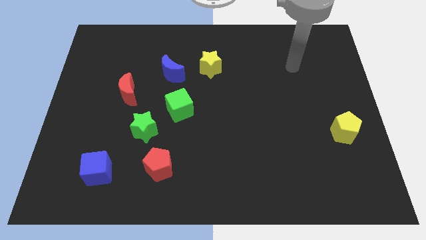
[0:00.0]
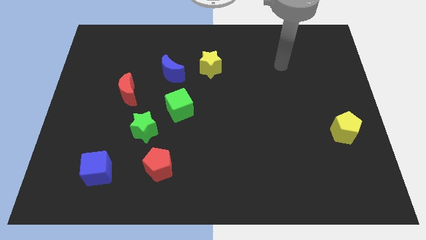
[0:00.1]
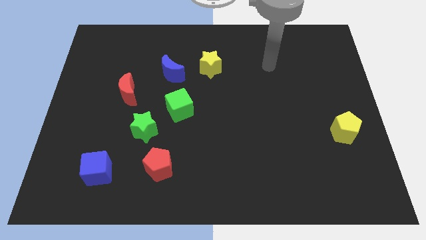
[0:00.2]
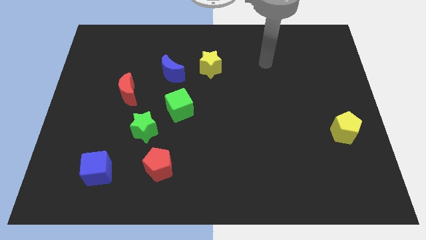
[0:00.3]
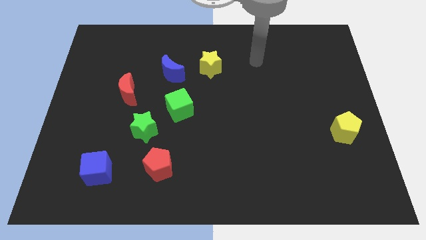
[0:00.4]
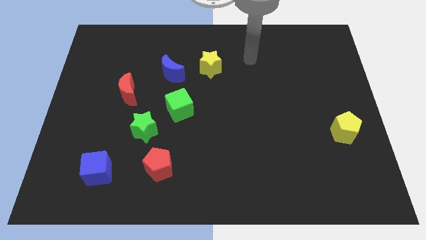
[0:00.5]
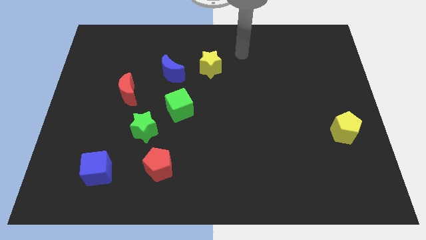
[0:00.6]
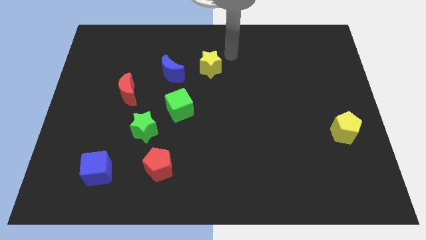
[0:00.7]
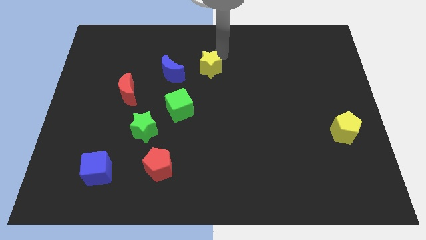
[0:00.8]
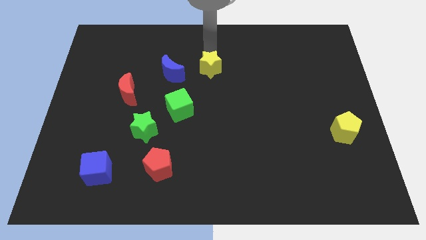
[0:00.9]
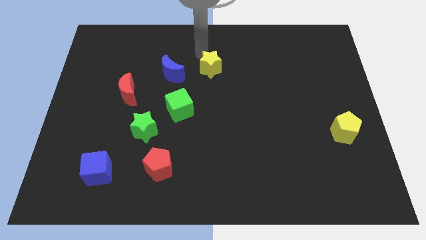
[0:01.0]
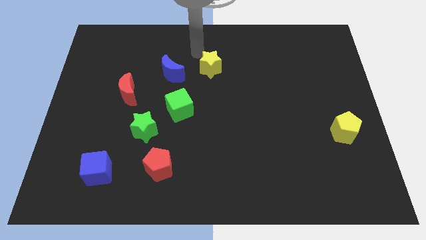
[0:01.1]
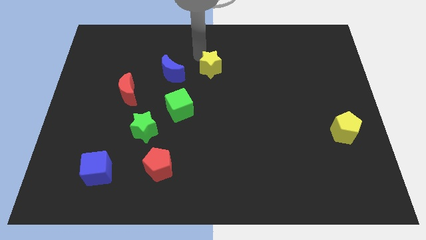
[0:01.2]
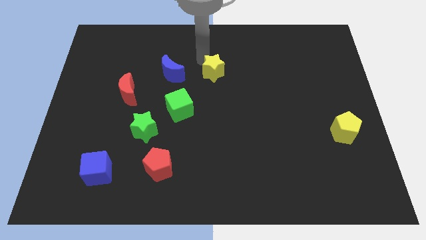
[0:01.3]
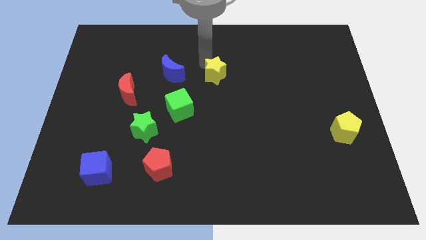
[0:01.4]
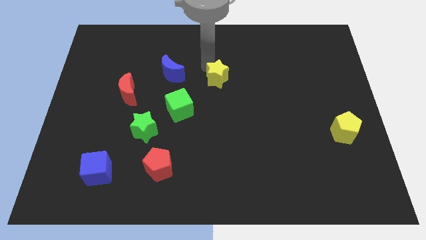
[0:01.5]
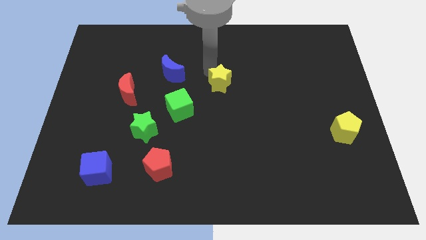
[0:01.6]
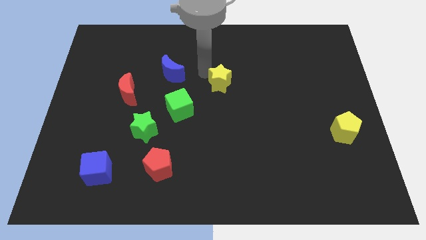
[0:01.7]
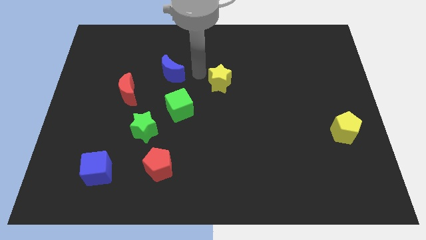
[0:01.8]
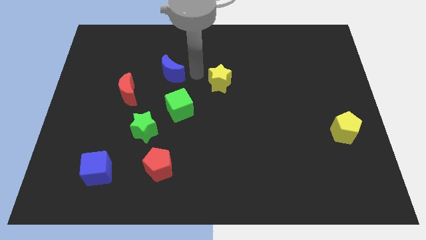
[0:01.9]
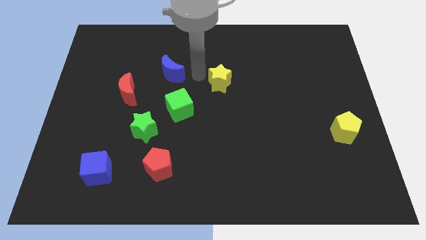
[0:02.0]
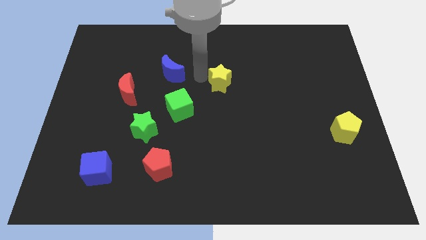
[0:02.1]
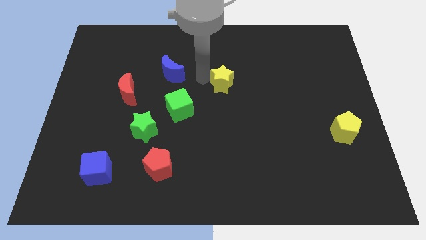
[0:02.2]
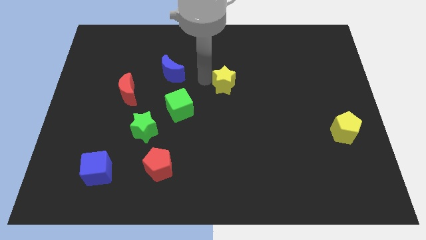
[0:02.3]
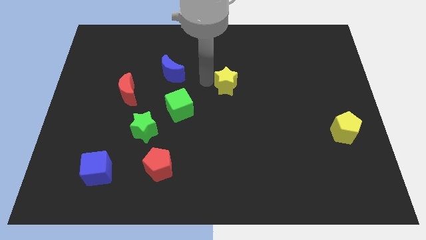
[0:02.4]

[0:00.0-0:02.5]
push the yellow star slightly down and to the right

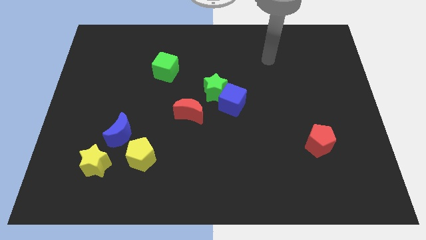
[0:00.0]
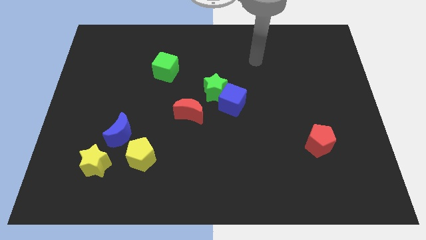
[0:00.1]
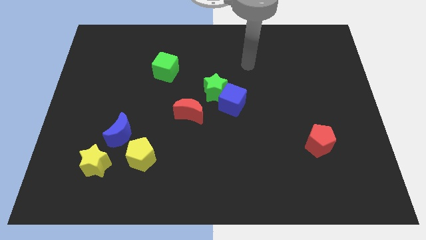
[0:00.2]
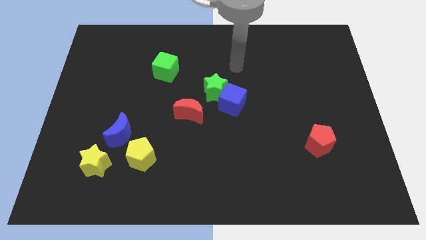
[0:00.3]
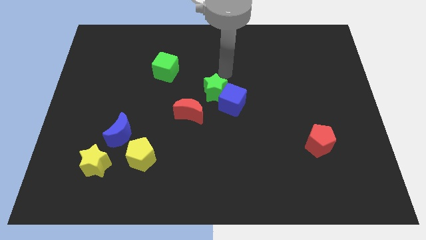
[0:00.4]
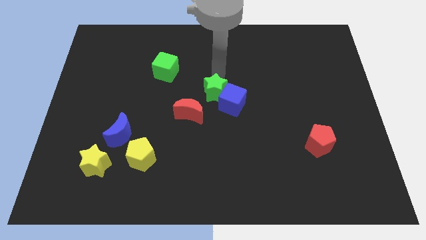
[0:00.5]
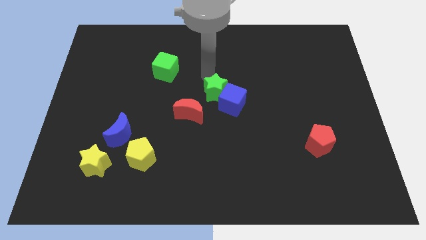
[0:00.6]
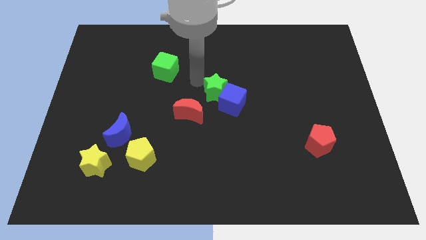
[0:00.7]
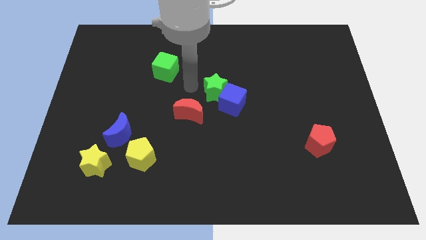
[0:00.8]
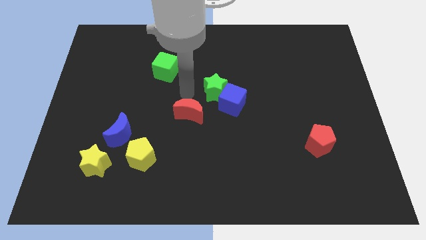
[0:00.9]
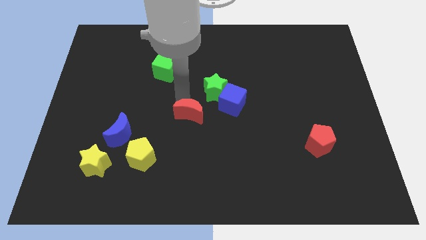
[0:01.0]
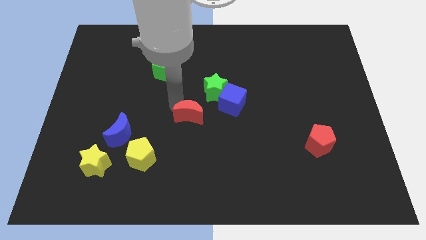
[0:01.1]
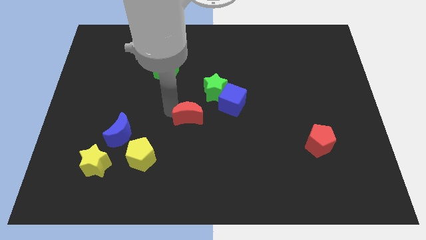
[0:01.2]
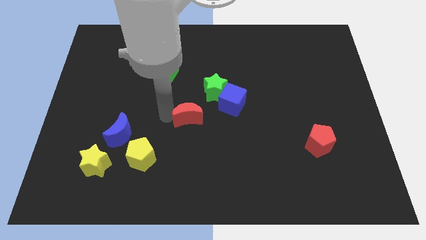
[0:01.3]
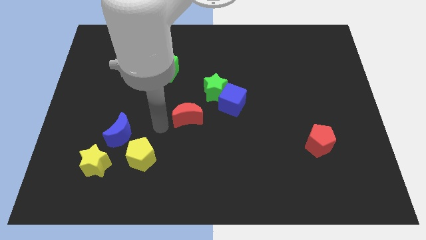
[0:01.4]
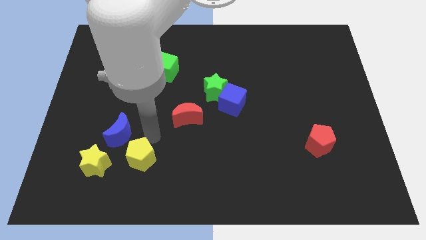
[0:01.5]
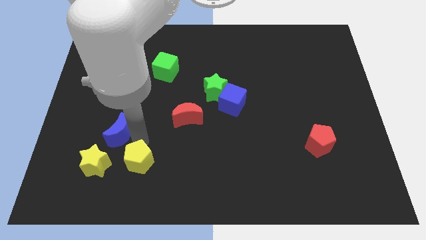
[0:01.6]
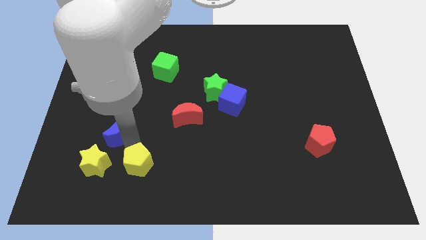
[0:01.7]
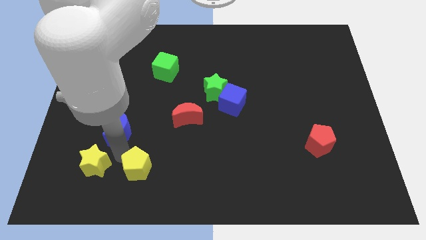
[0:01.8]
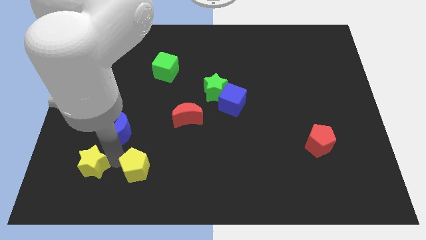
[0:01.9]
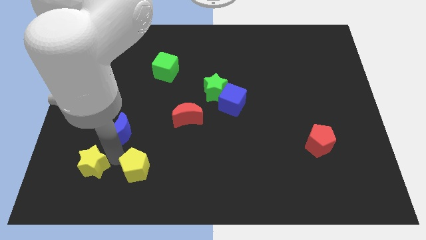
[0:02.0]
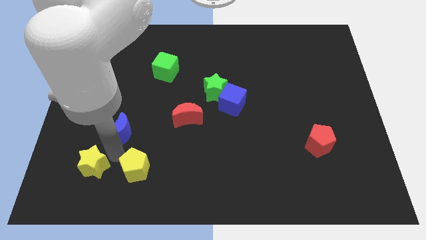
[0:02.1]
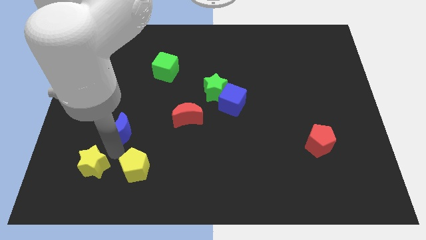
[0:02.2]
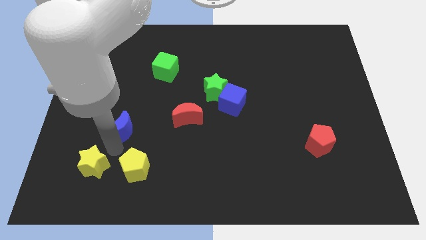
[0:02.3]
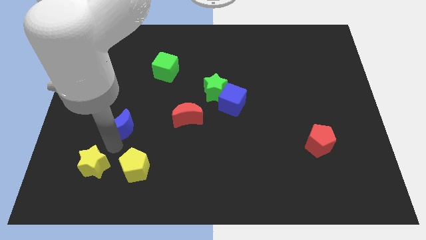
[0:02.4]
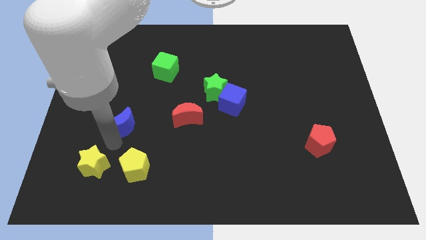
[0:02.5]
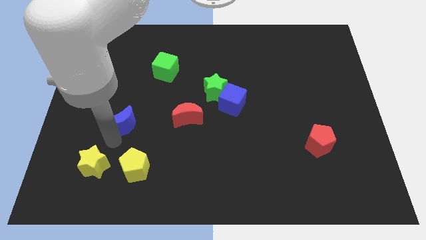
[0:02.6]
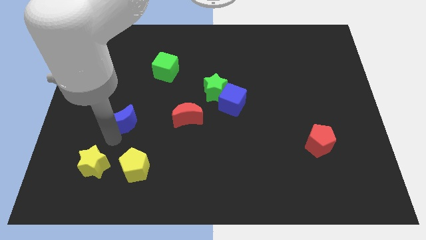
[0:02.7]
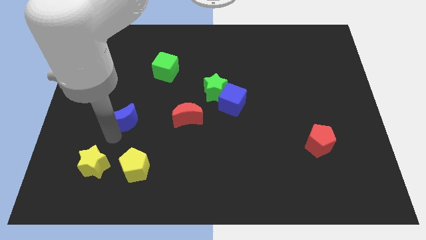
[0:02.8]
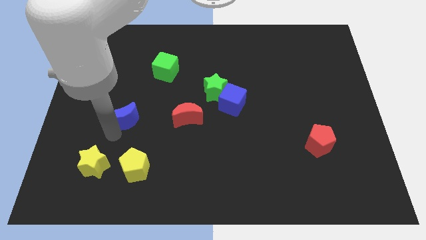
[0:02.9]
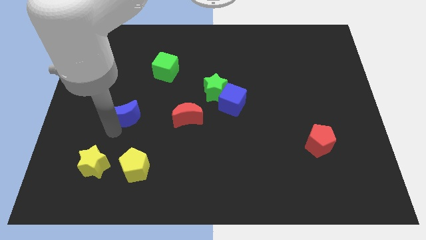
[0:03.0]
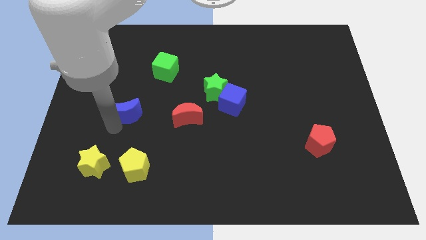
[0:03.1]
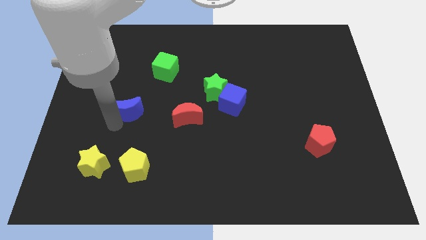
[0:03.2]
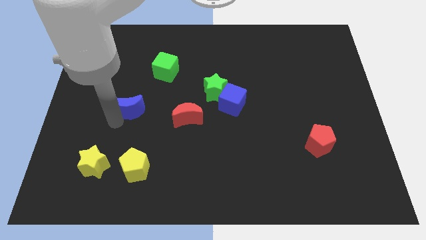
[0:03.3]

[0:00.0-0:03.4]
slightly slide the blue moon upwards

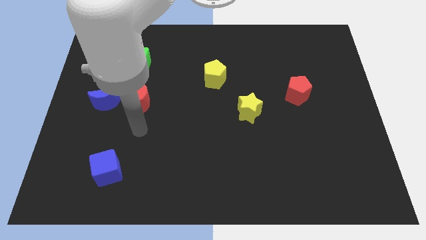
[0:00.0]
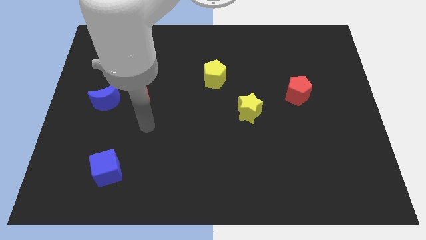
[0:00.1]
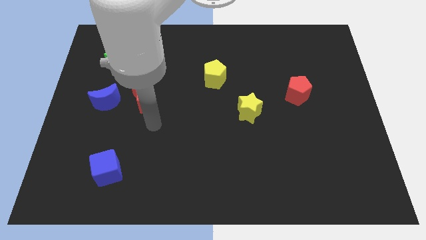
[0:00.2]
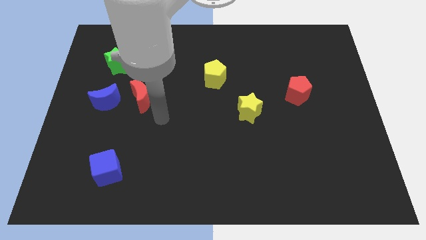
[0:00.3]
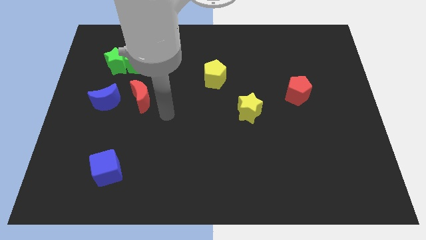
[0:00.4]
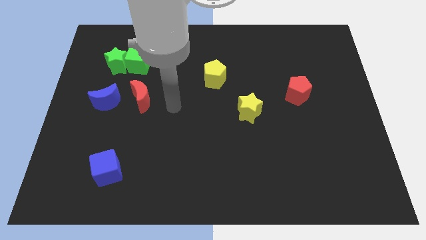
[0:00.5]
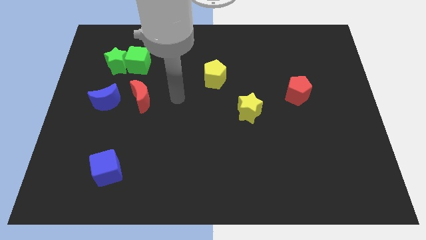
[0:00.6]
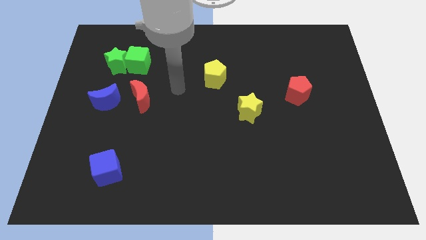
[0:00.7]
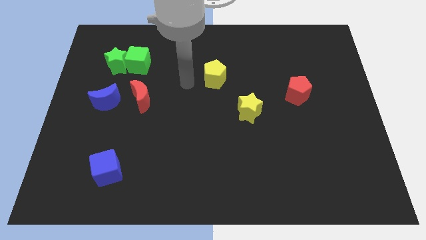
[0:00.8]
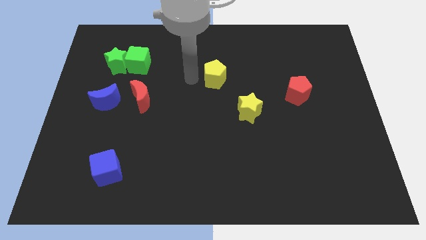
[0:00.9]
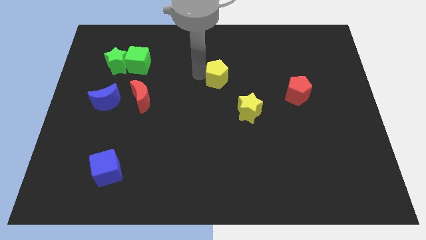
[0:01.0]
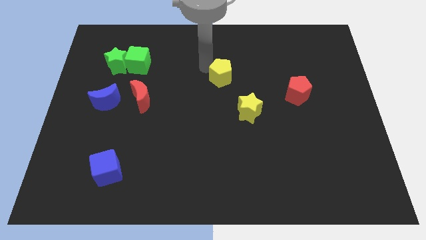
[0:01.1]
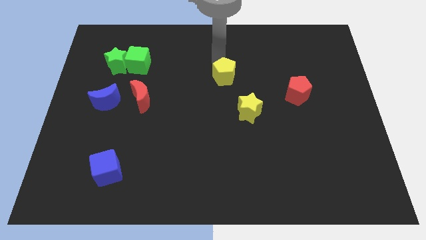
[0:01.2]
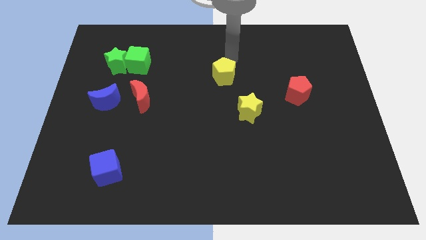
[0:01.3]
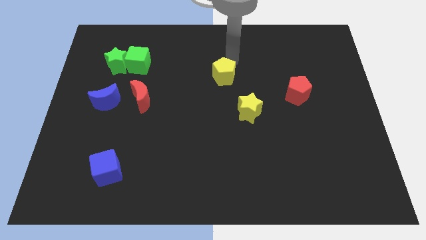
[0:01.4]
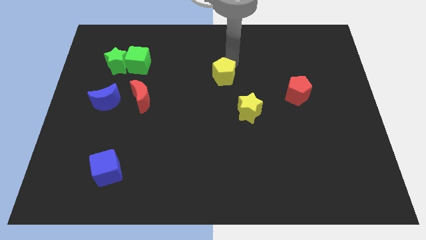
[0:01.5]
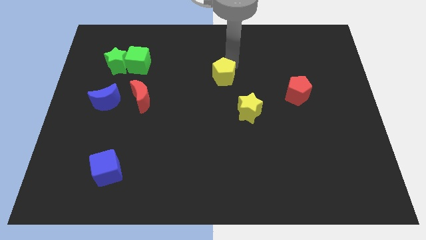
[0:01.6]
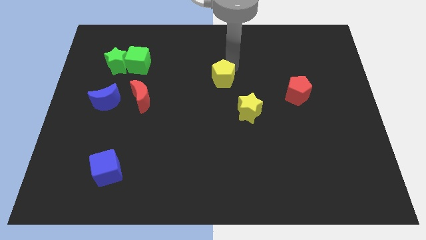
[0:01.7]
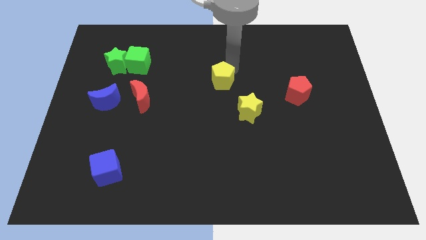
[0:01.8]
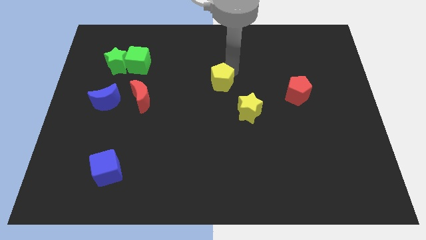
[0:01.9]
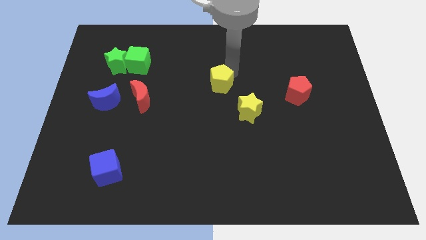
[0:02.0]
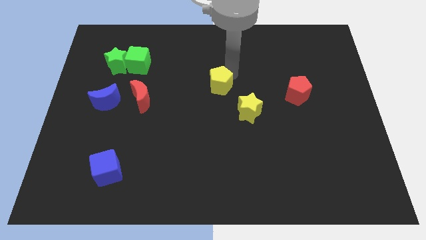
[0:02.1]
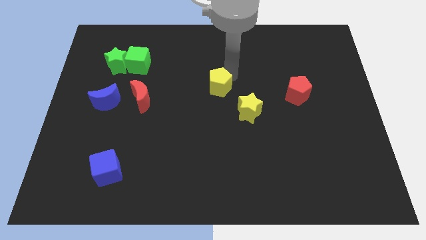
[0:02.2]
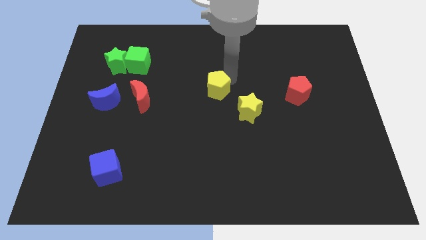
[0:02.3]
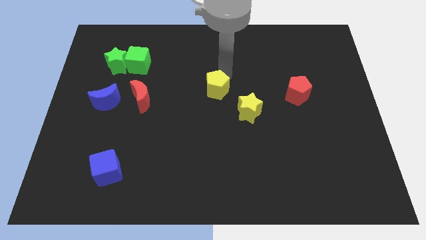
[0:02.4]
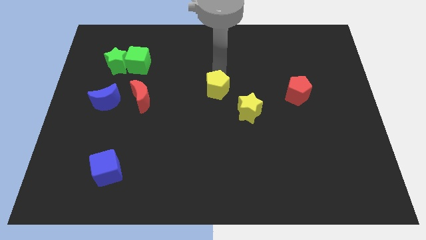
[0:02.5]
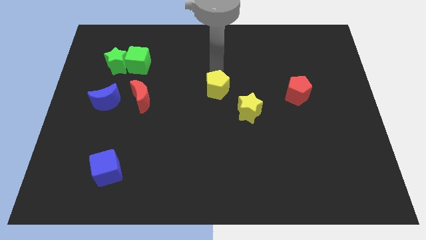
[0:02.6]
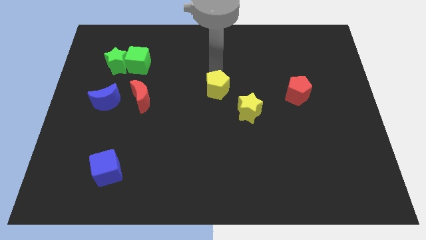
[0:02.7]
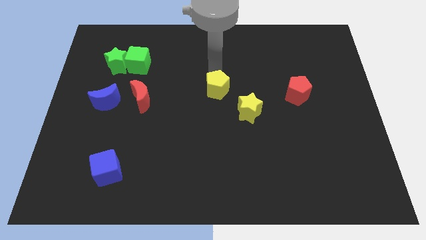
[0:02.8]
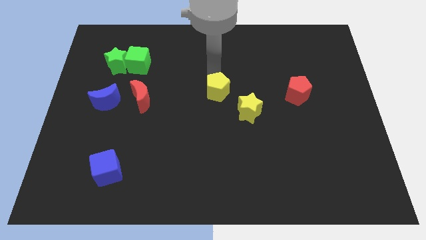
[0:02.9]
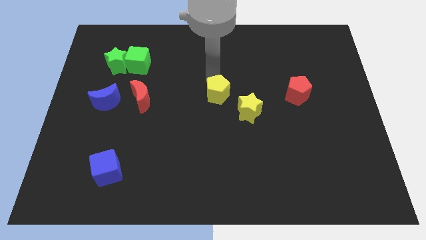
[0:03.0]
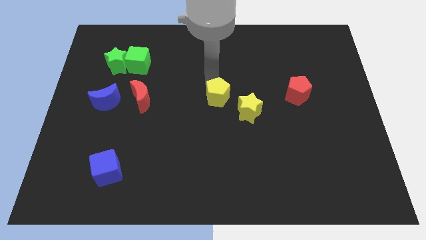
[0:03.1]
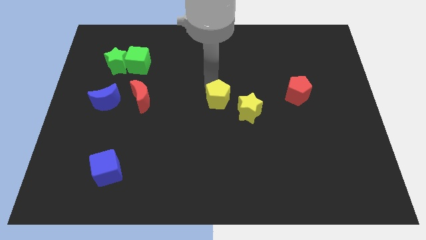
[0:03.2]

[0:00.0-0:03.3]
slide the yellow pentagon down a bit
